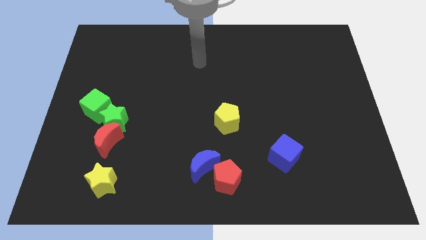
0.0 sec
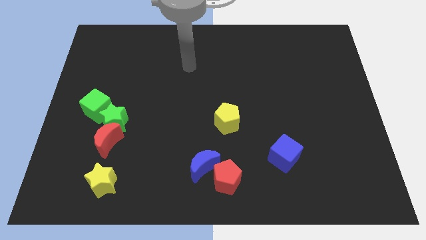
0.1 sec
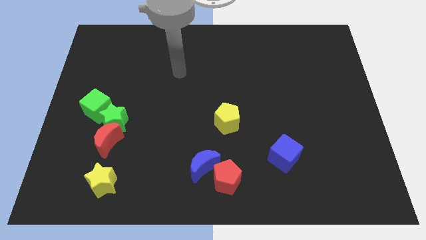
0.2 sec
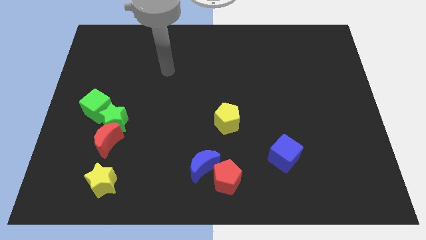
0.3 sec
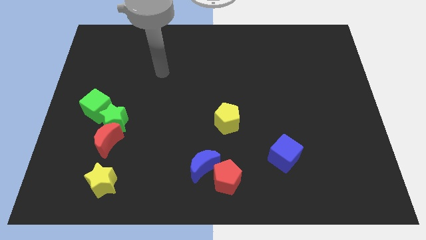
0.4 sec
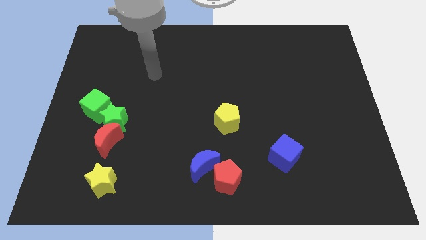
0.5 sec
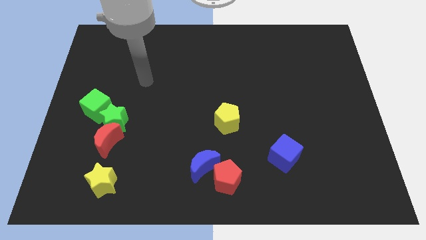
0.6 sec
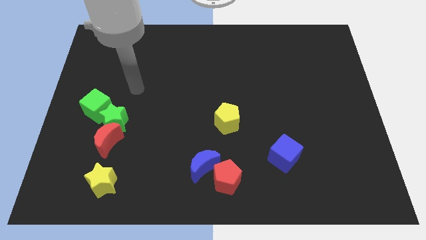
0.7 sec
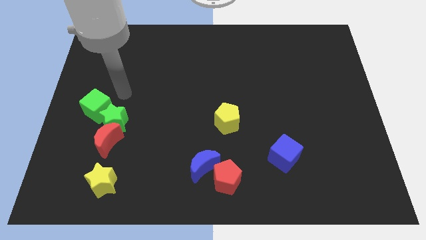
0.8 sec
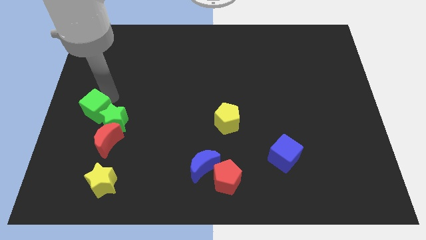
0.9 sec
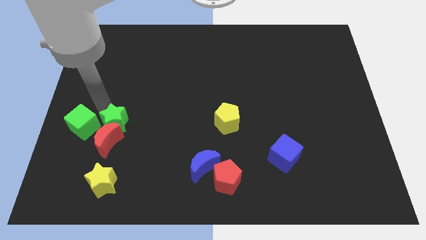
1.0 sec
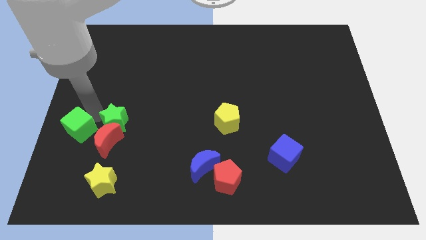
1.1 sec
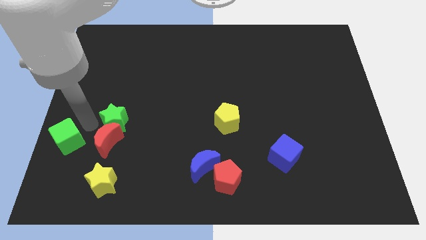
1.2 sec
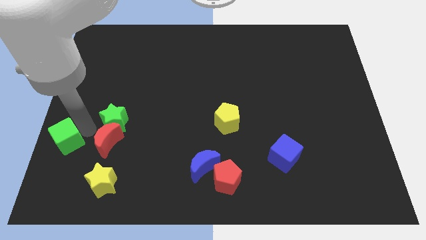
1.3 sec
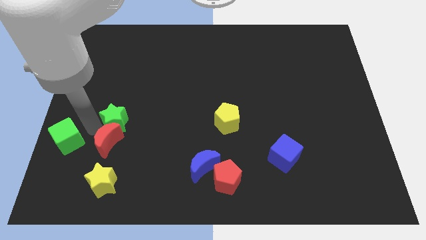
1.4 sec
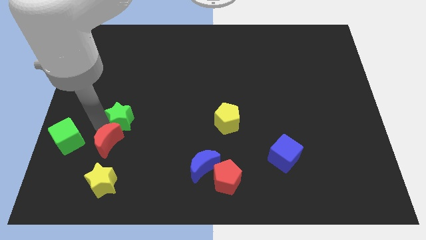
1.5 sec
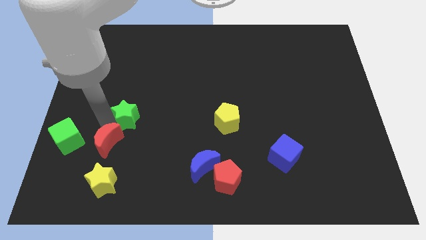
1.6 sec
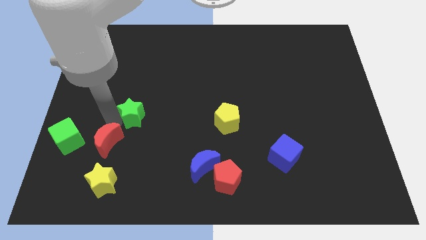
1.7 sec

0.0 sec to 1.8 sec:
move the green star away from the red moon and green cube

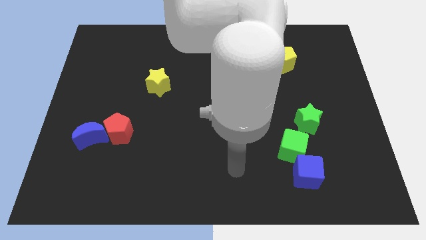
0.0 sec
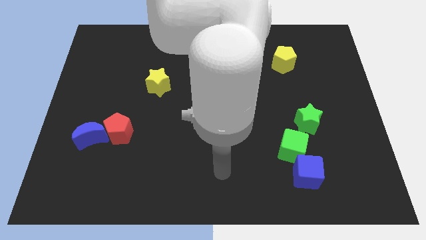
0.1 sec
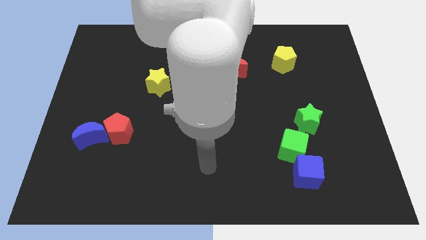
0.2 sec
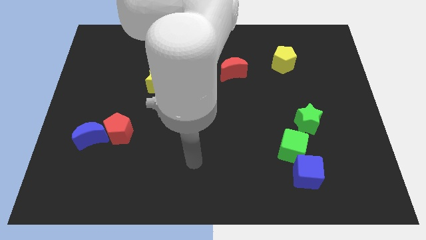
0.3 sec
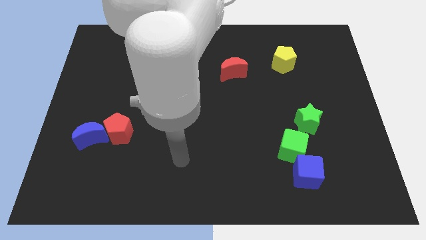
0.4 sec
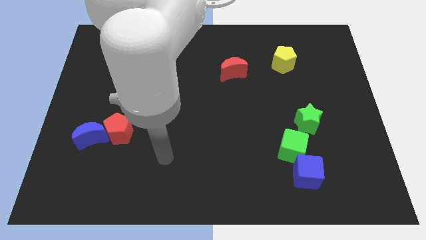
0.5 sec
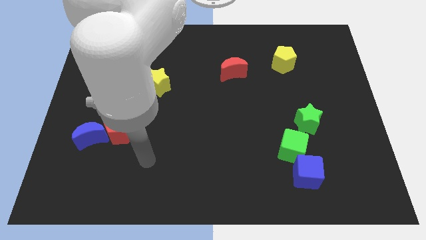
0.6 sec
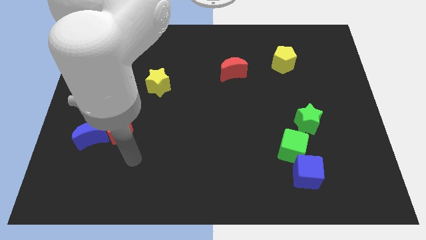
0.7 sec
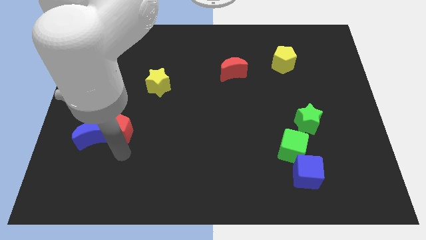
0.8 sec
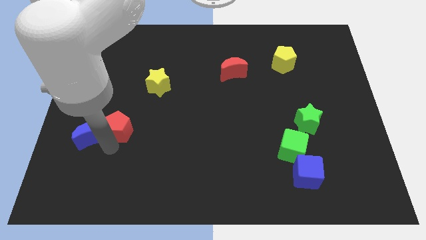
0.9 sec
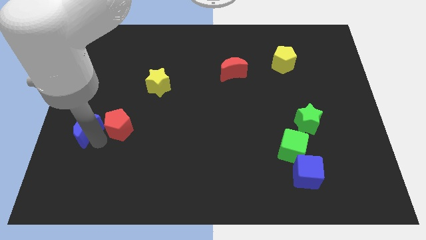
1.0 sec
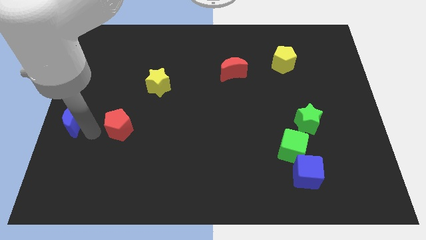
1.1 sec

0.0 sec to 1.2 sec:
pull the red pentagon apart from the blue moon

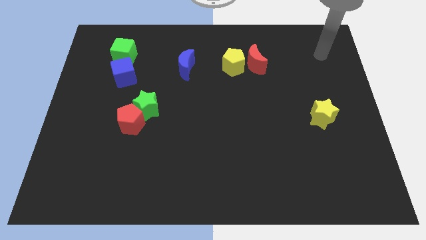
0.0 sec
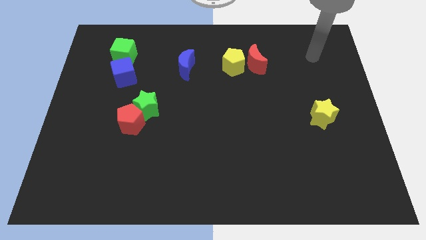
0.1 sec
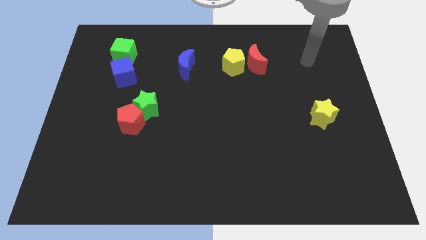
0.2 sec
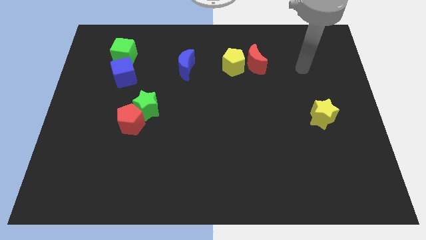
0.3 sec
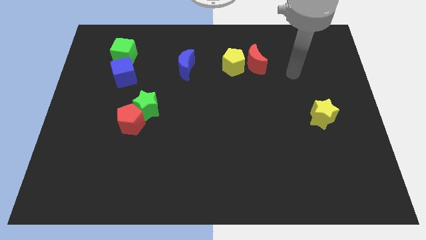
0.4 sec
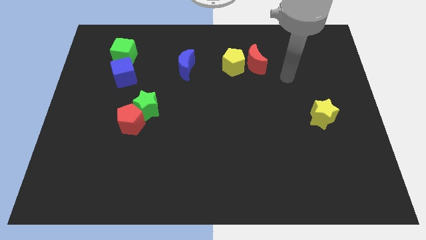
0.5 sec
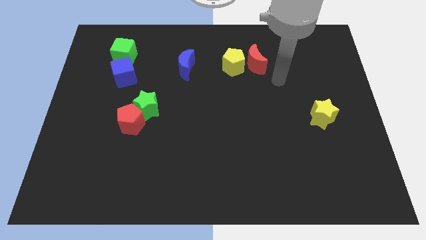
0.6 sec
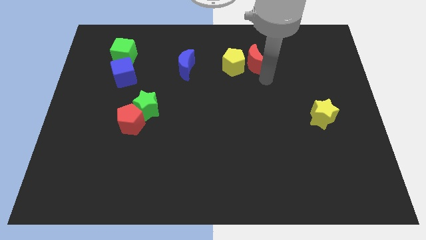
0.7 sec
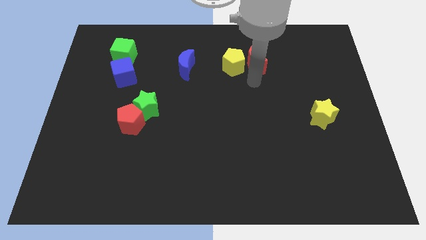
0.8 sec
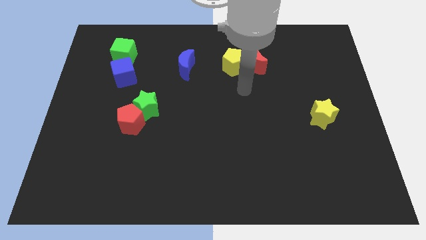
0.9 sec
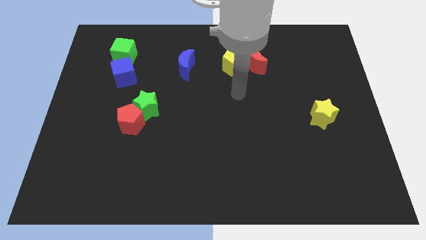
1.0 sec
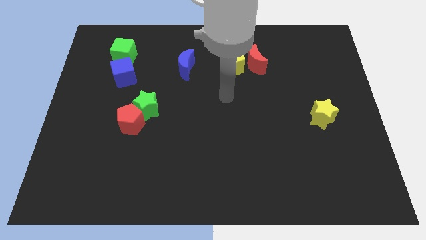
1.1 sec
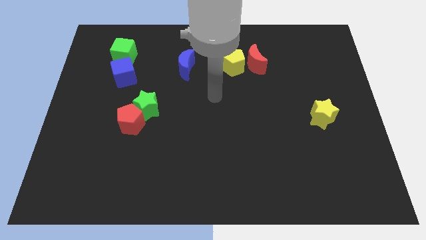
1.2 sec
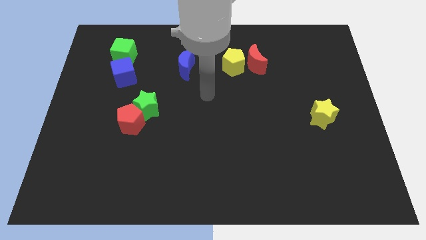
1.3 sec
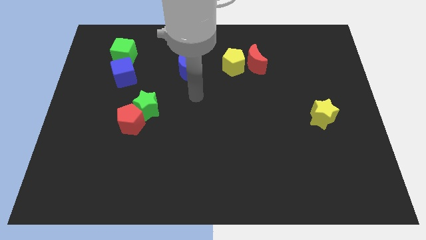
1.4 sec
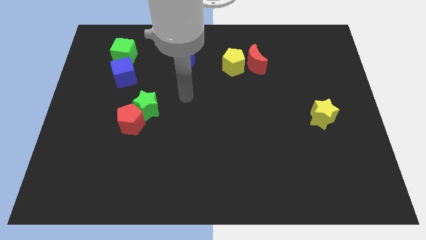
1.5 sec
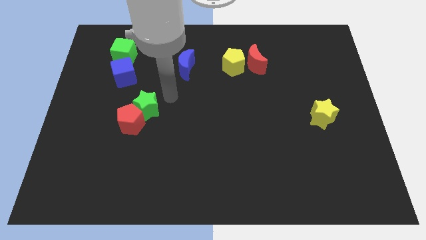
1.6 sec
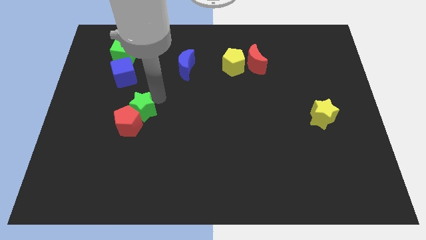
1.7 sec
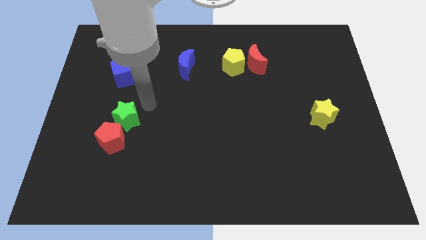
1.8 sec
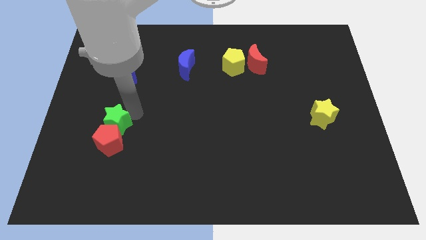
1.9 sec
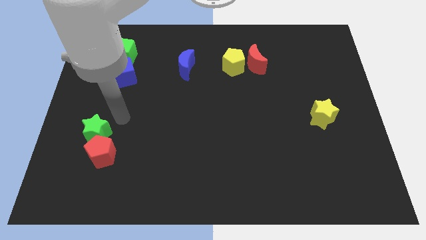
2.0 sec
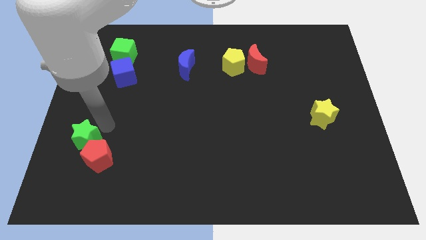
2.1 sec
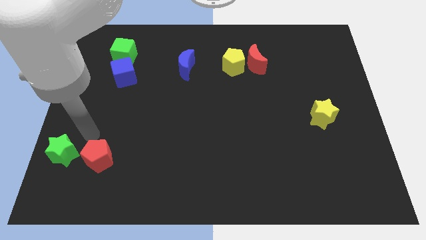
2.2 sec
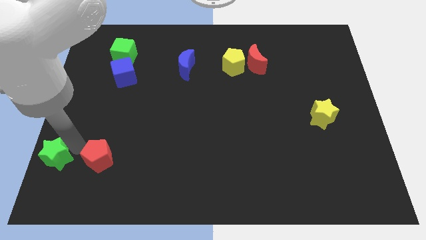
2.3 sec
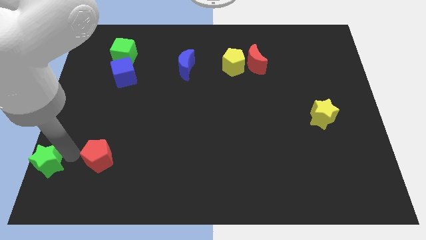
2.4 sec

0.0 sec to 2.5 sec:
separate the red pentagon from the green star

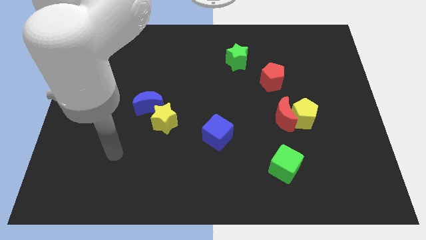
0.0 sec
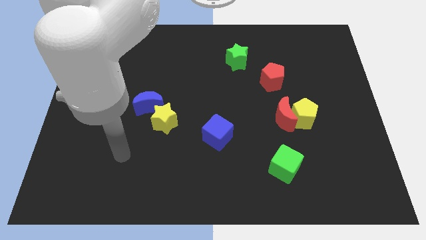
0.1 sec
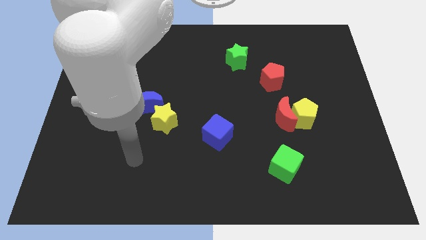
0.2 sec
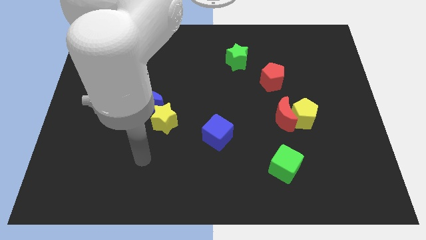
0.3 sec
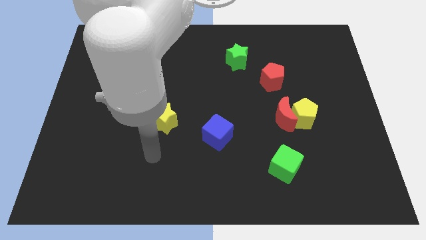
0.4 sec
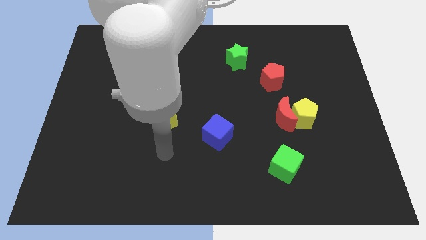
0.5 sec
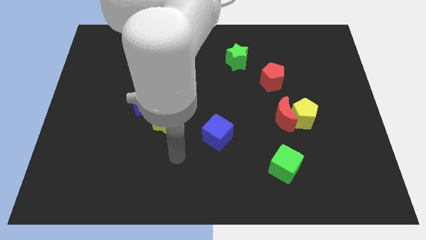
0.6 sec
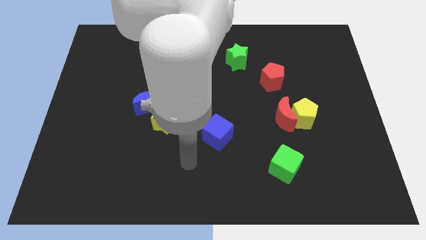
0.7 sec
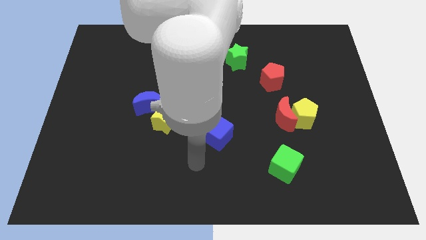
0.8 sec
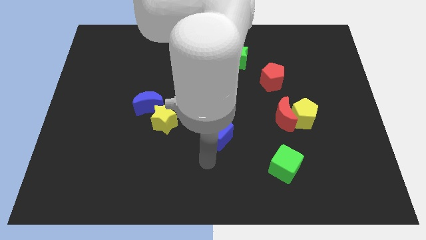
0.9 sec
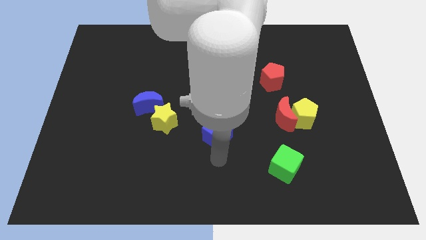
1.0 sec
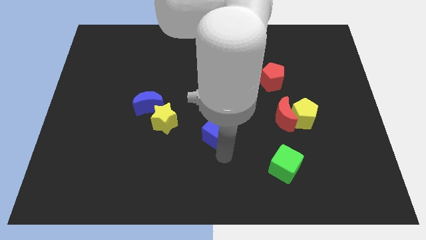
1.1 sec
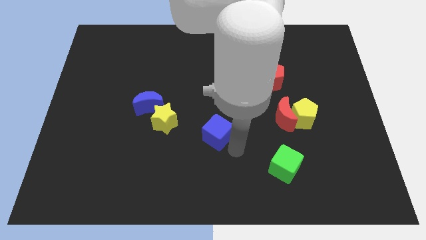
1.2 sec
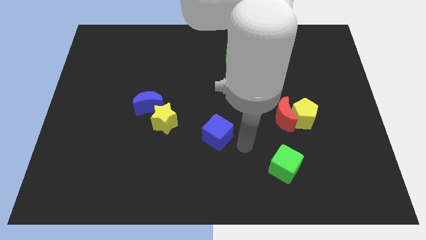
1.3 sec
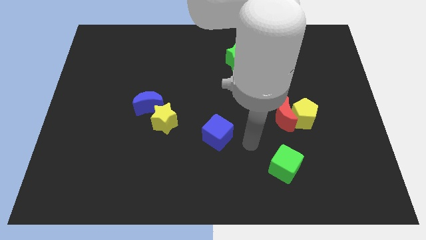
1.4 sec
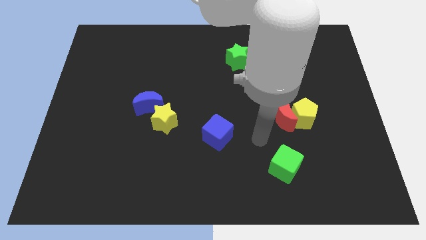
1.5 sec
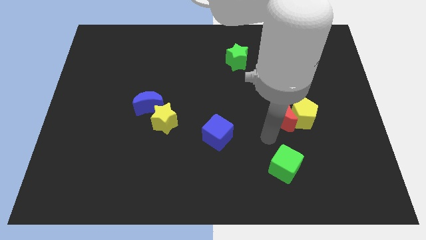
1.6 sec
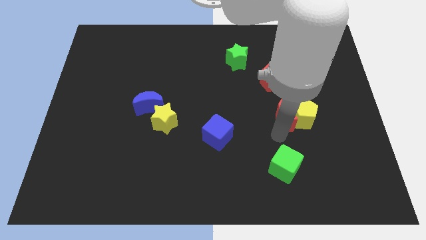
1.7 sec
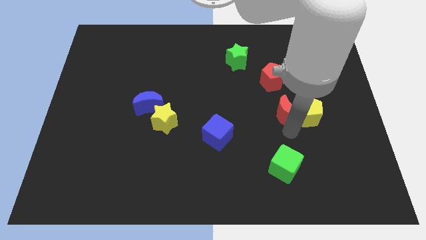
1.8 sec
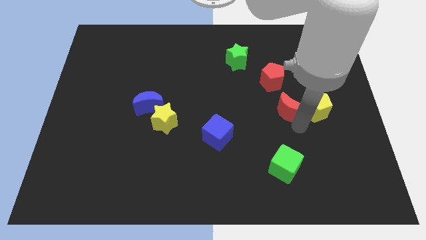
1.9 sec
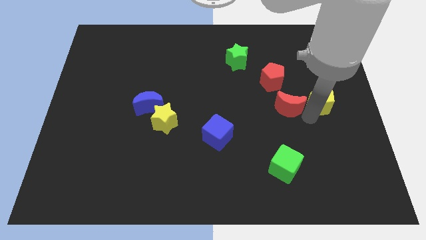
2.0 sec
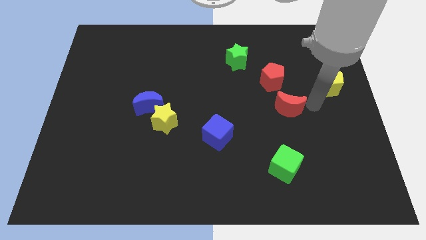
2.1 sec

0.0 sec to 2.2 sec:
move the red moon away from the yellow pentagon

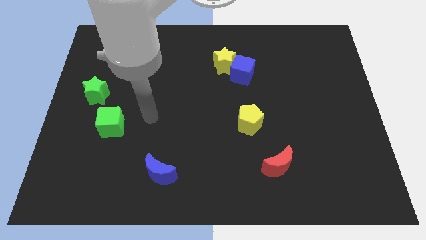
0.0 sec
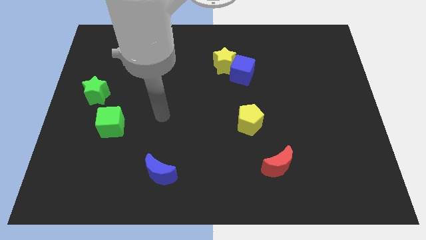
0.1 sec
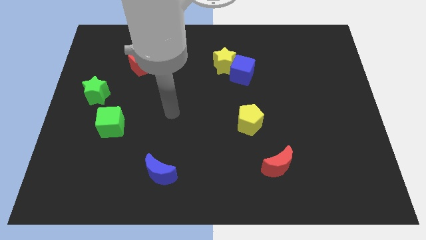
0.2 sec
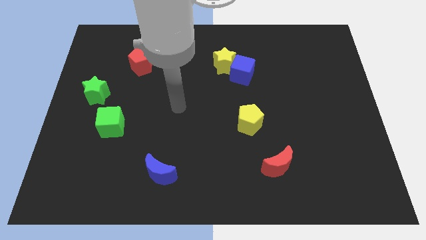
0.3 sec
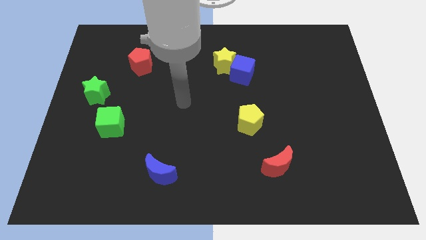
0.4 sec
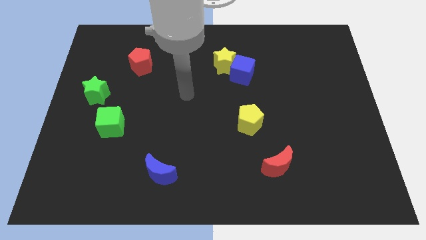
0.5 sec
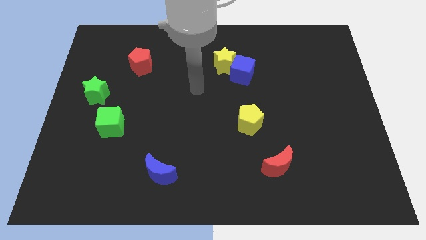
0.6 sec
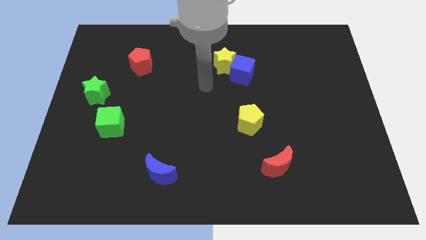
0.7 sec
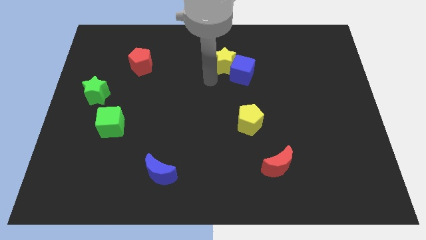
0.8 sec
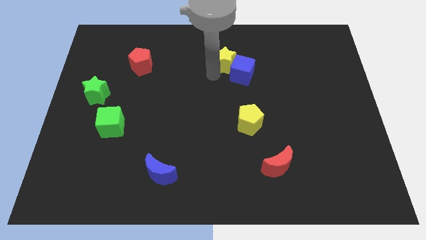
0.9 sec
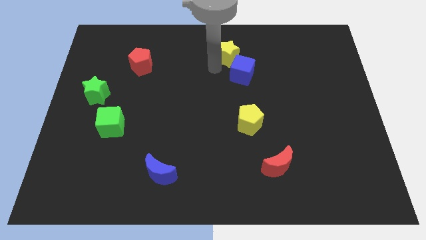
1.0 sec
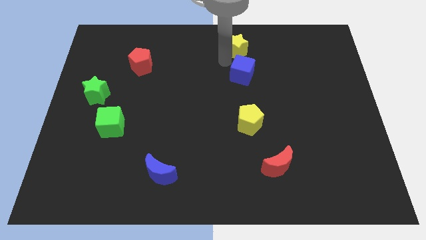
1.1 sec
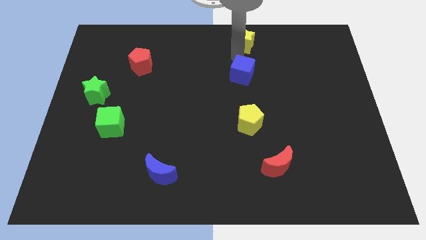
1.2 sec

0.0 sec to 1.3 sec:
move the blue cube away from the yellow star

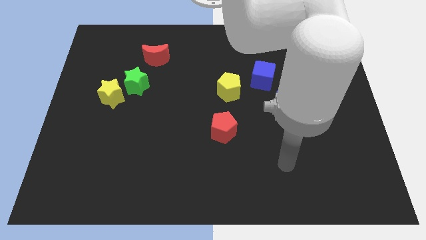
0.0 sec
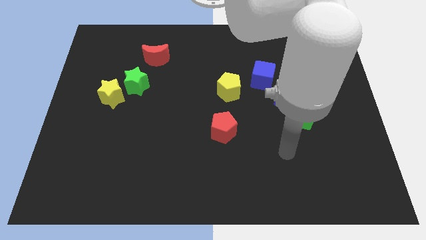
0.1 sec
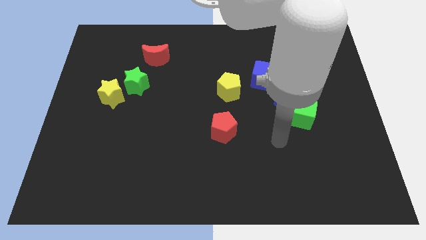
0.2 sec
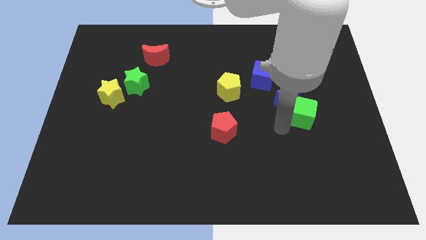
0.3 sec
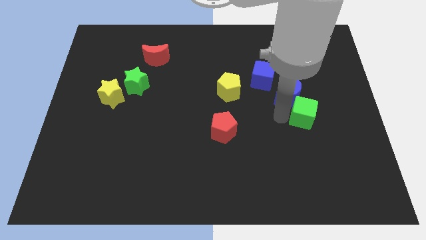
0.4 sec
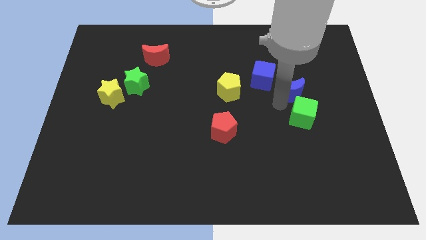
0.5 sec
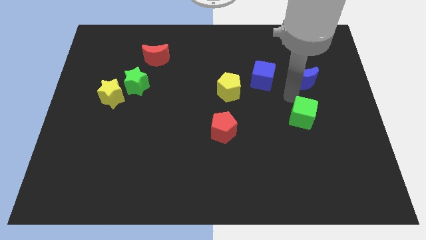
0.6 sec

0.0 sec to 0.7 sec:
move the green cube away from the blue moon
